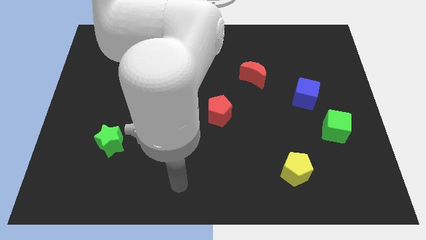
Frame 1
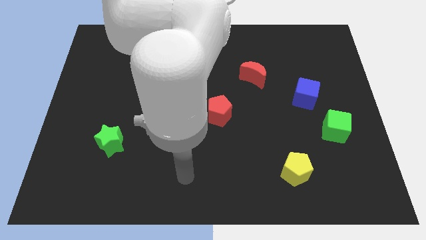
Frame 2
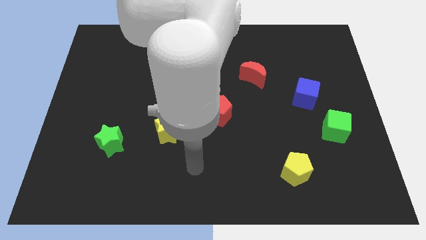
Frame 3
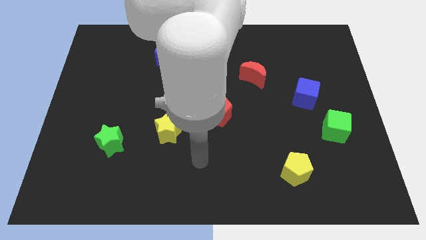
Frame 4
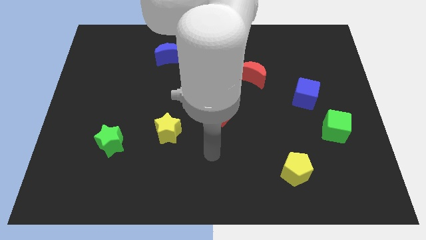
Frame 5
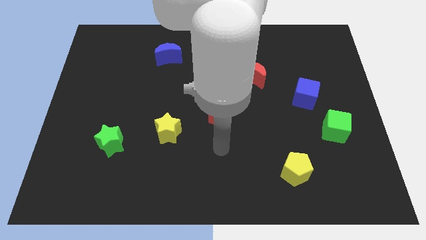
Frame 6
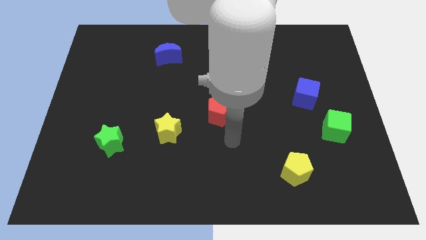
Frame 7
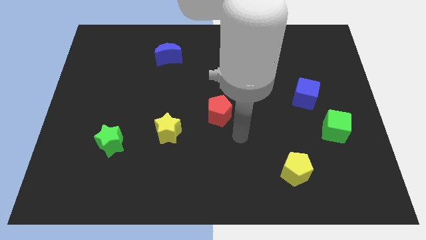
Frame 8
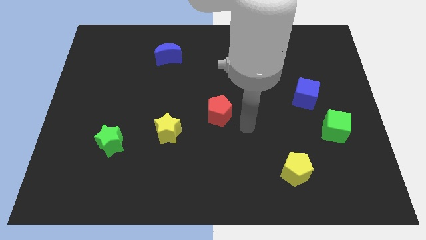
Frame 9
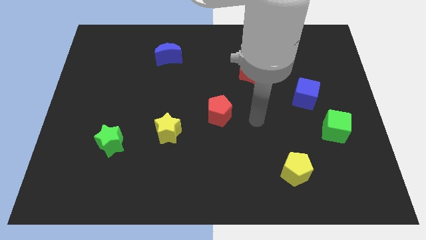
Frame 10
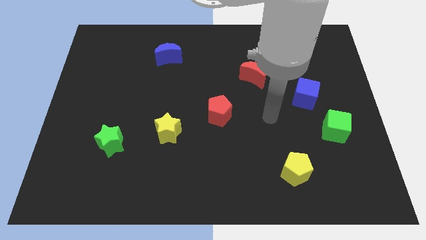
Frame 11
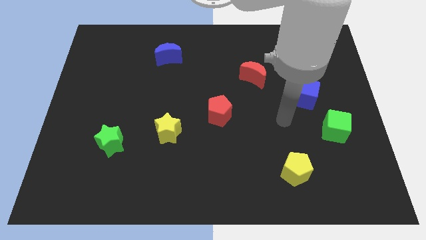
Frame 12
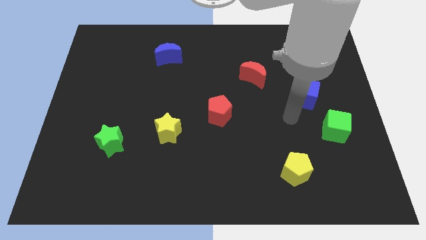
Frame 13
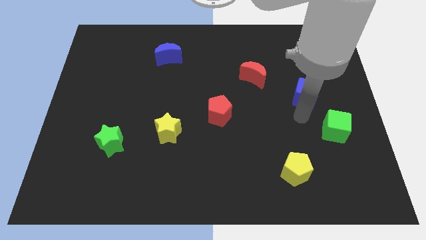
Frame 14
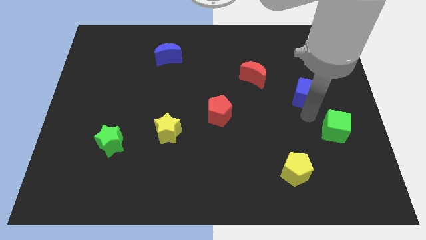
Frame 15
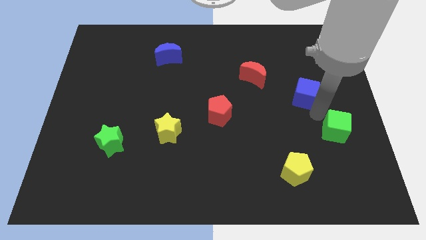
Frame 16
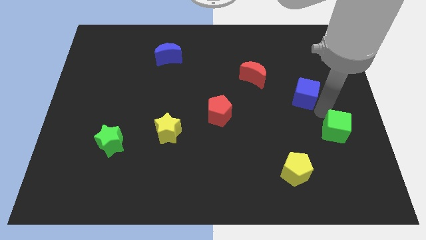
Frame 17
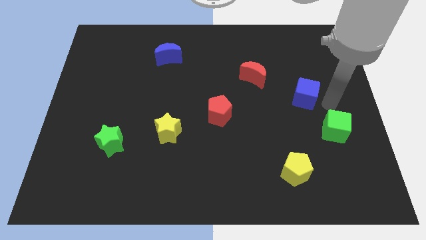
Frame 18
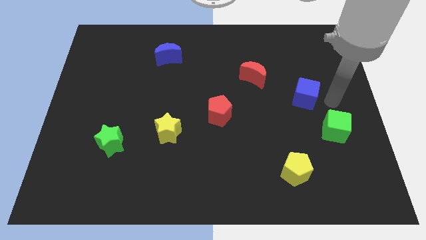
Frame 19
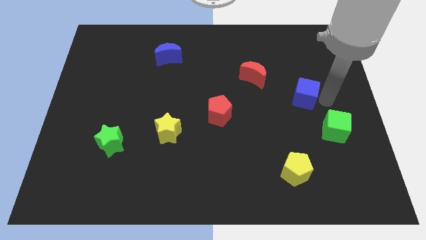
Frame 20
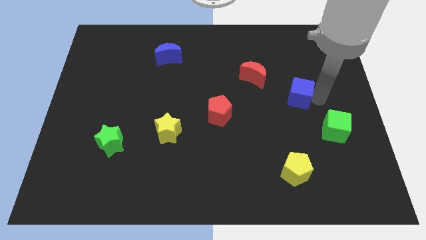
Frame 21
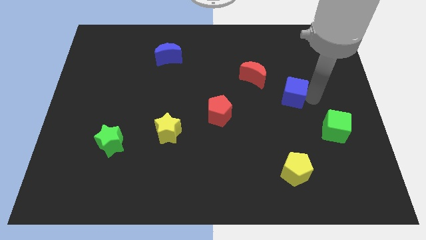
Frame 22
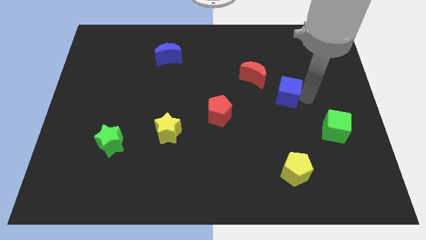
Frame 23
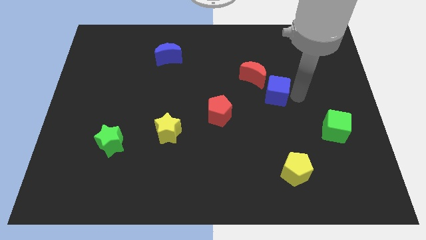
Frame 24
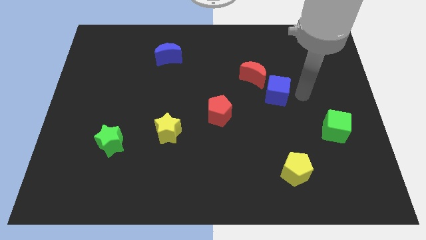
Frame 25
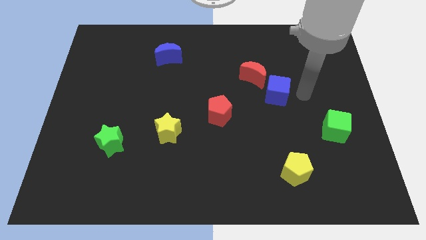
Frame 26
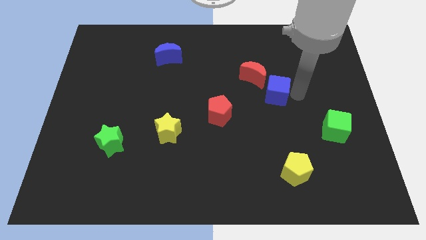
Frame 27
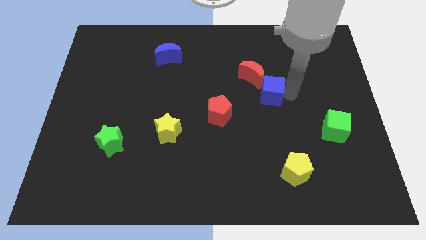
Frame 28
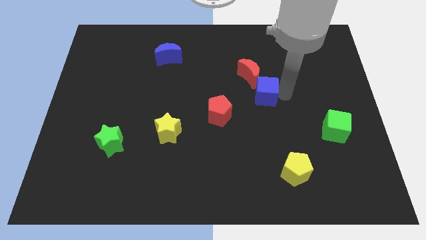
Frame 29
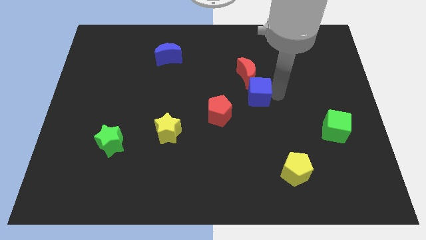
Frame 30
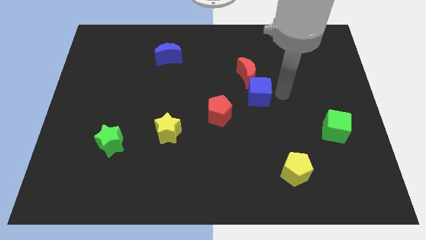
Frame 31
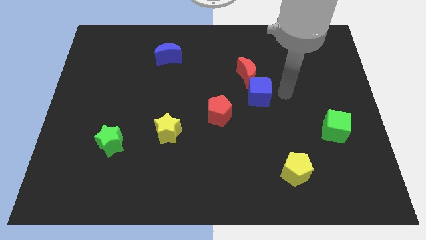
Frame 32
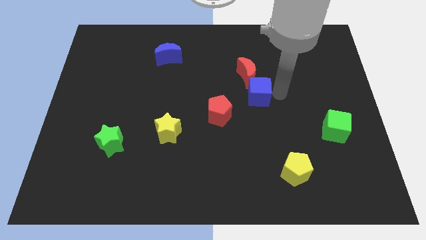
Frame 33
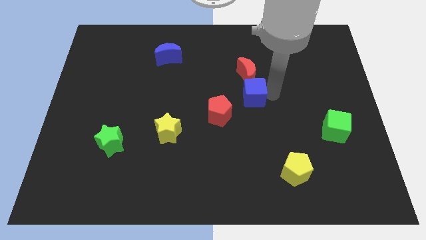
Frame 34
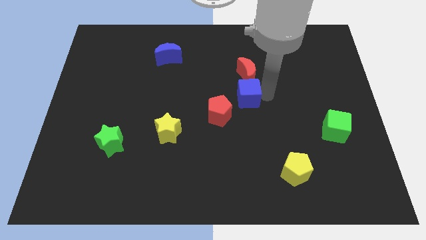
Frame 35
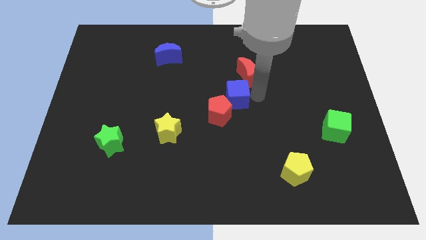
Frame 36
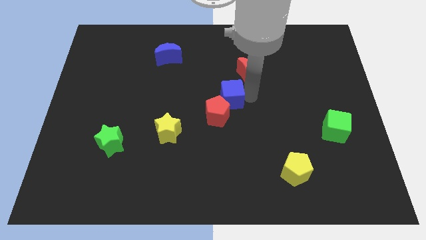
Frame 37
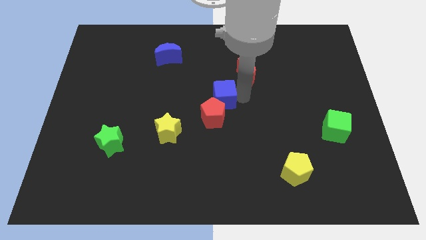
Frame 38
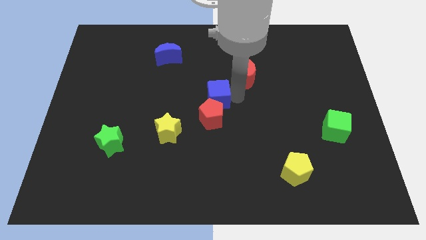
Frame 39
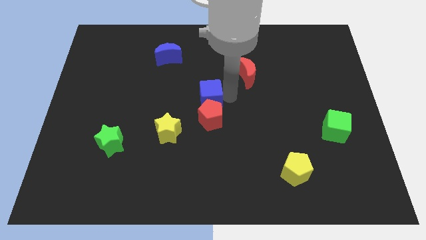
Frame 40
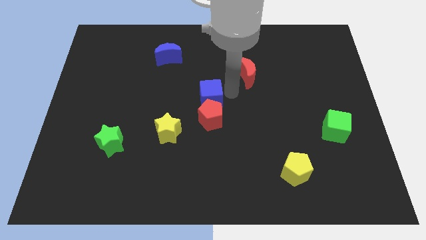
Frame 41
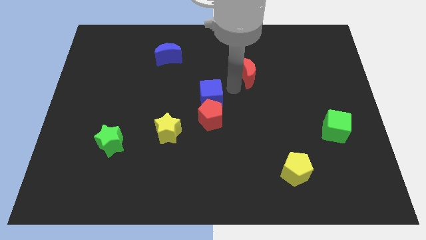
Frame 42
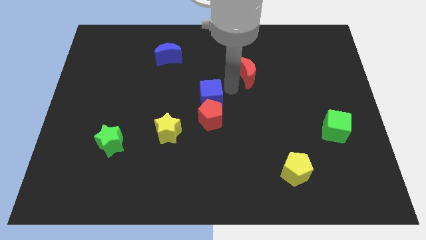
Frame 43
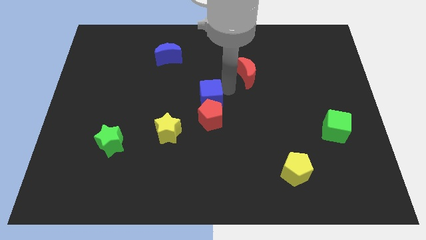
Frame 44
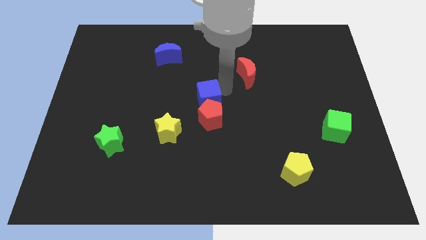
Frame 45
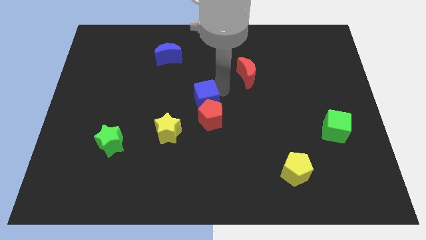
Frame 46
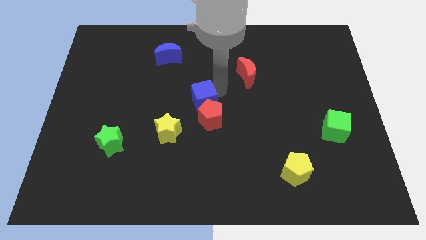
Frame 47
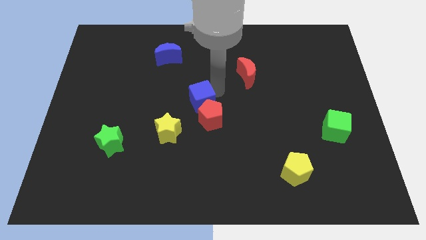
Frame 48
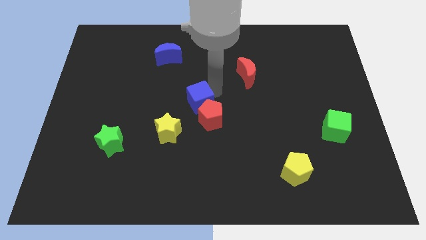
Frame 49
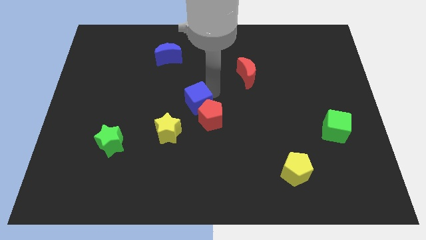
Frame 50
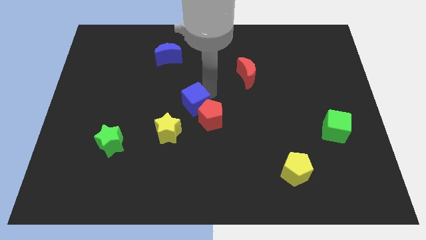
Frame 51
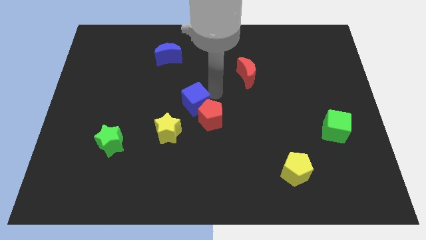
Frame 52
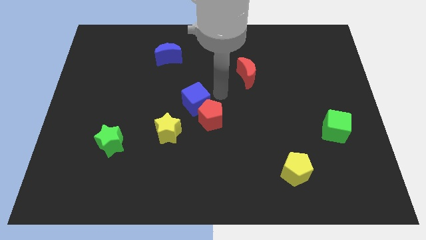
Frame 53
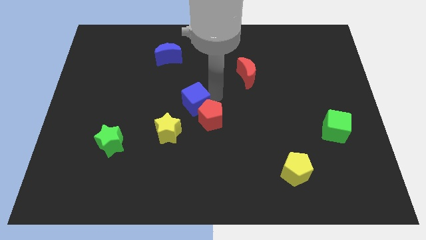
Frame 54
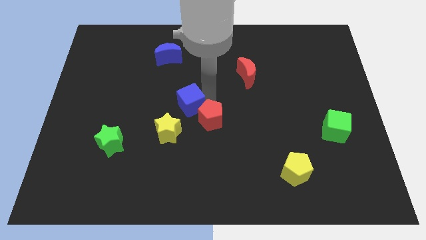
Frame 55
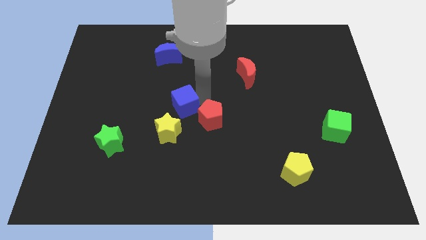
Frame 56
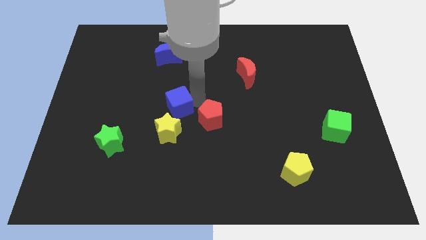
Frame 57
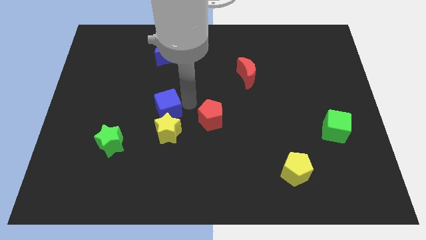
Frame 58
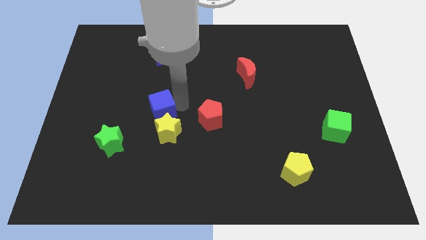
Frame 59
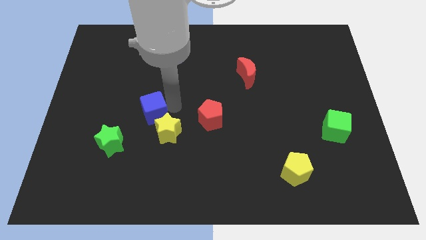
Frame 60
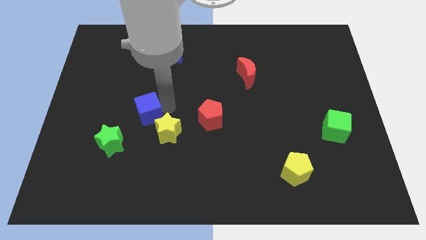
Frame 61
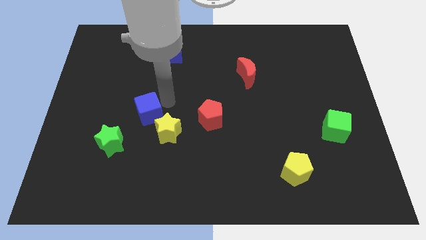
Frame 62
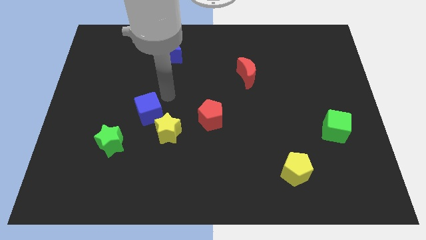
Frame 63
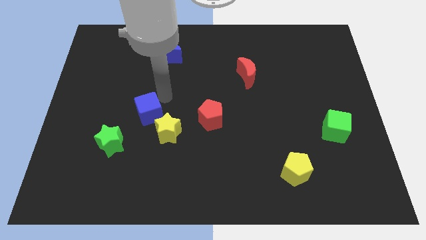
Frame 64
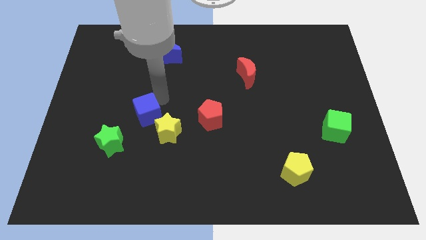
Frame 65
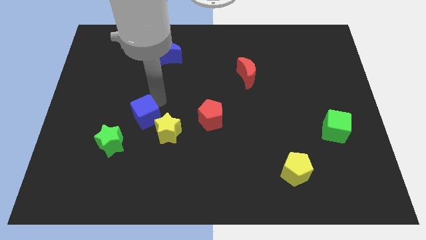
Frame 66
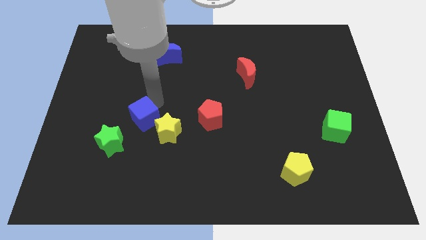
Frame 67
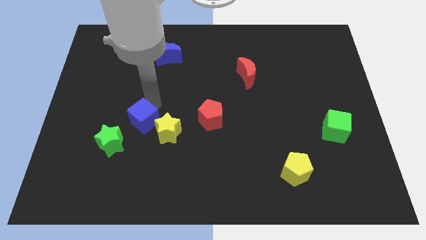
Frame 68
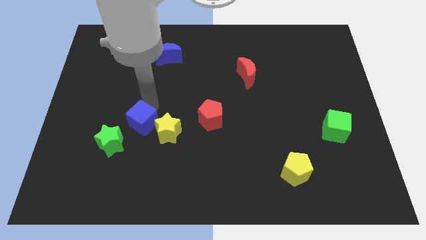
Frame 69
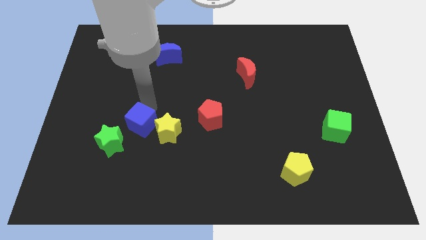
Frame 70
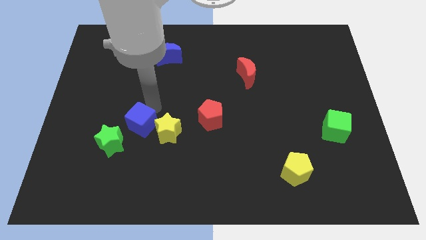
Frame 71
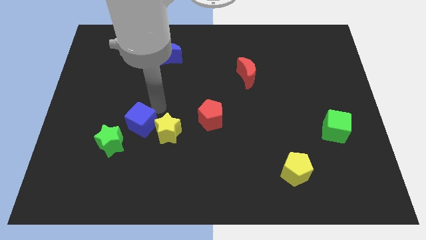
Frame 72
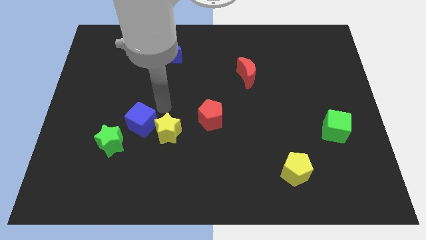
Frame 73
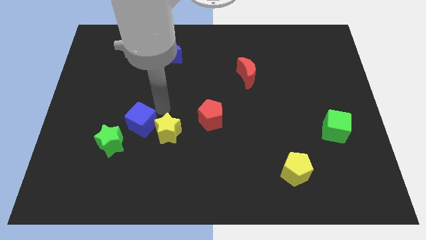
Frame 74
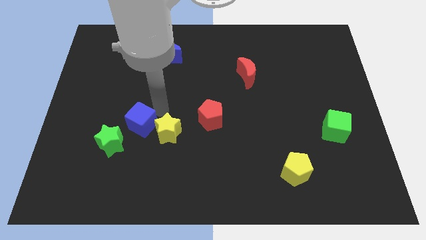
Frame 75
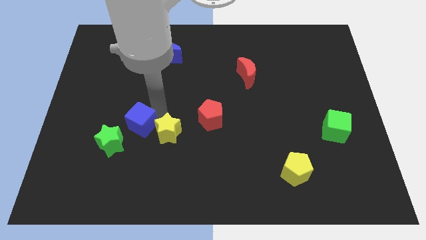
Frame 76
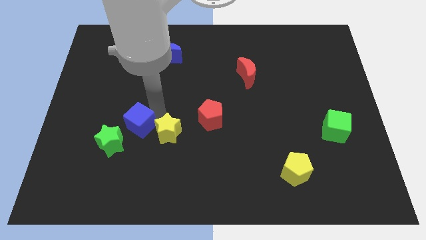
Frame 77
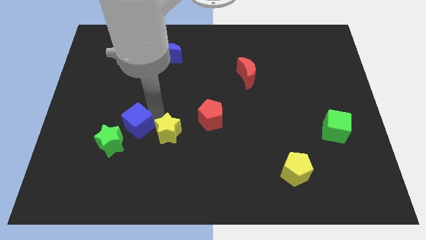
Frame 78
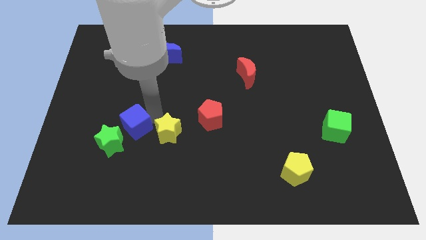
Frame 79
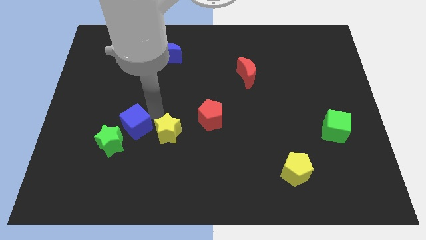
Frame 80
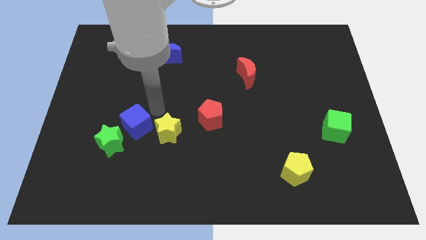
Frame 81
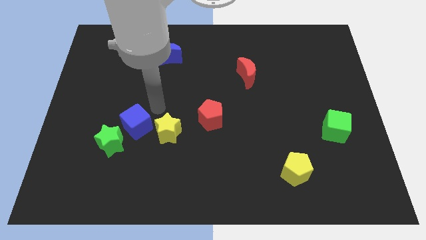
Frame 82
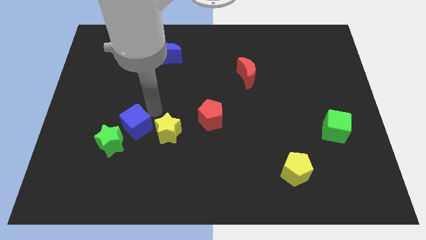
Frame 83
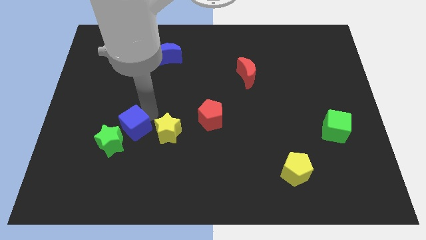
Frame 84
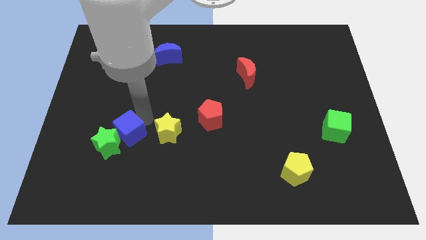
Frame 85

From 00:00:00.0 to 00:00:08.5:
slide the blue cube close to the green star
